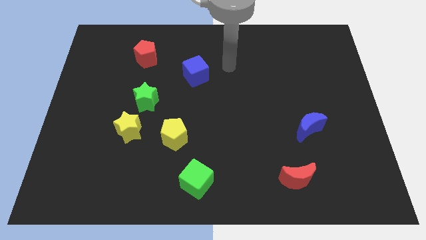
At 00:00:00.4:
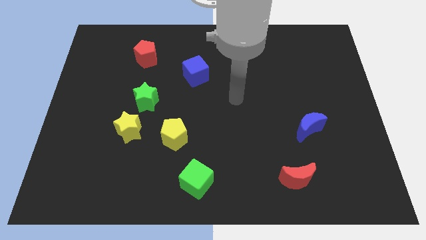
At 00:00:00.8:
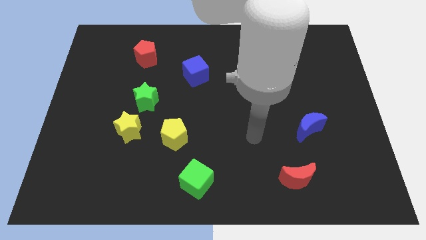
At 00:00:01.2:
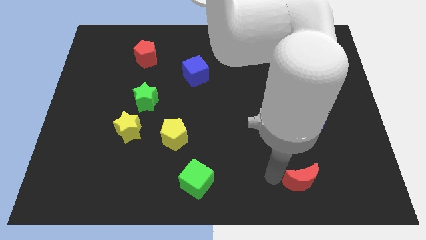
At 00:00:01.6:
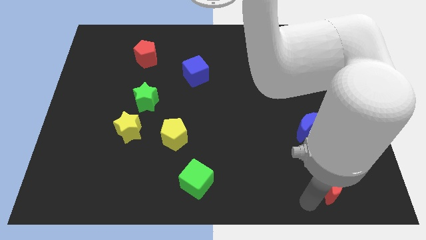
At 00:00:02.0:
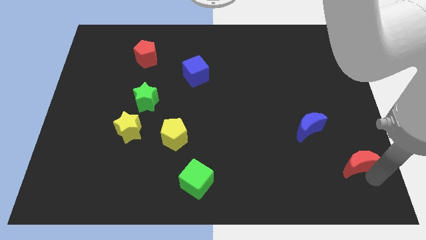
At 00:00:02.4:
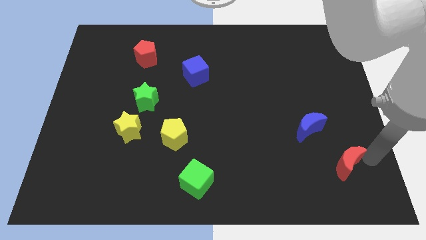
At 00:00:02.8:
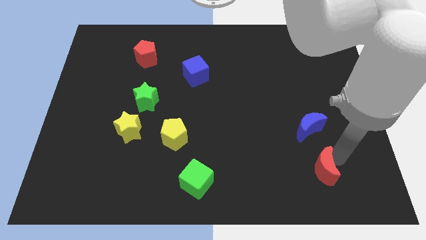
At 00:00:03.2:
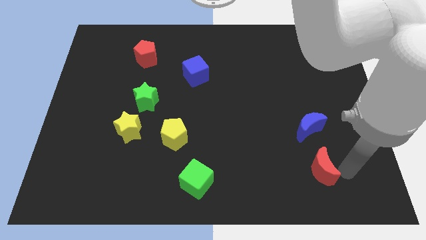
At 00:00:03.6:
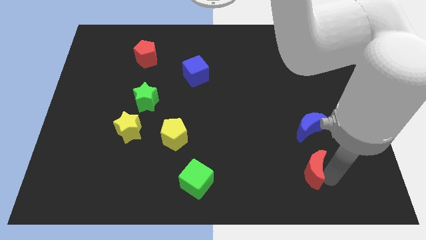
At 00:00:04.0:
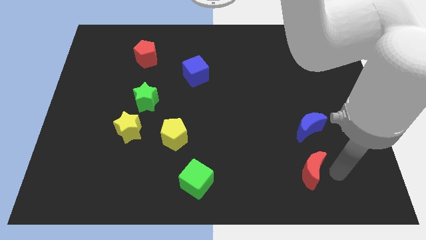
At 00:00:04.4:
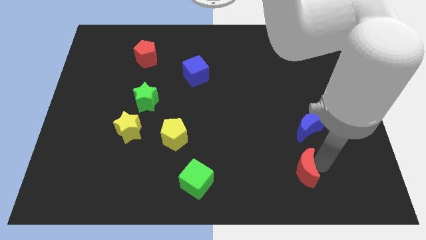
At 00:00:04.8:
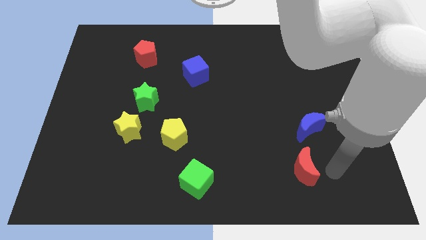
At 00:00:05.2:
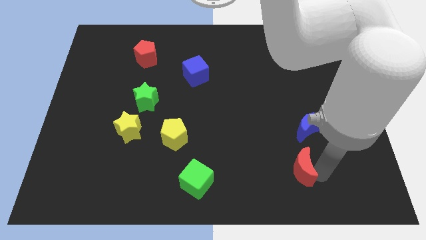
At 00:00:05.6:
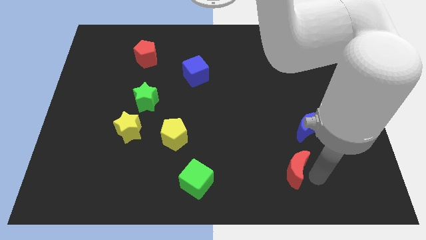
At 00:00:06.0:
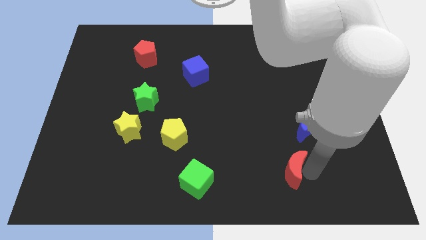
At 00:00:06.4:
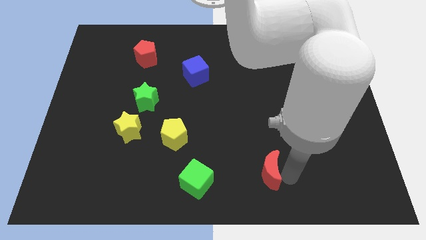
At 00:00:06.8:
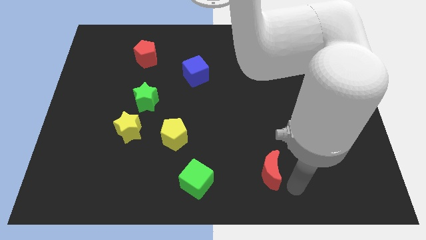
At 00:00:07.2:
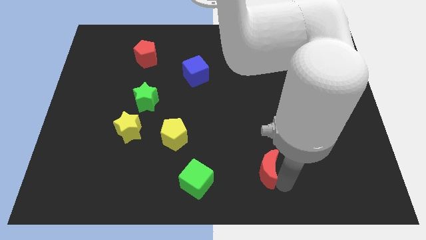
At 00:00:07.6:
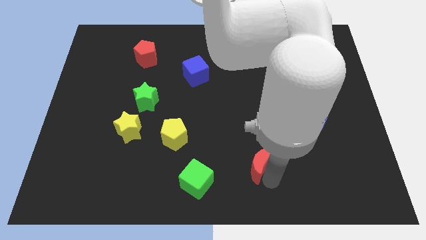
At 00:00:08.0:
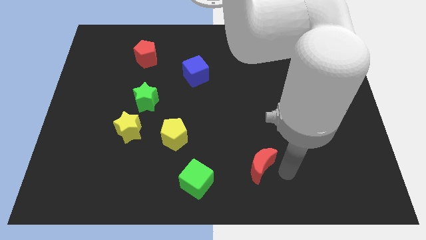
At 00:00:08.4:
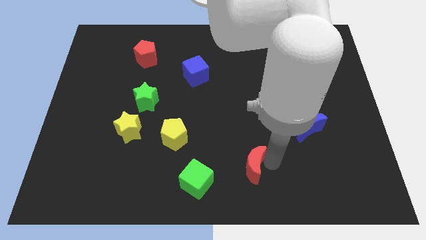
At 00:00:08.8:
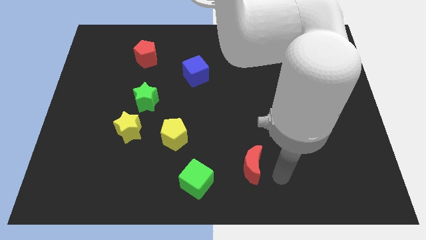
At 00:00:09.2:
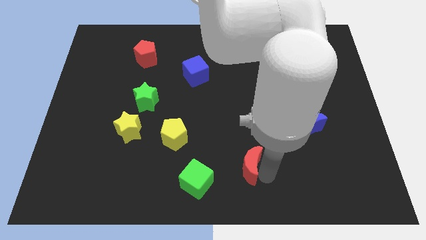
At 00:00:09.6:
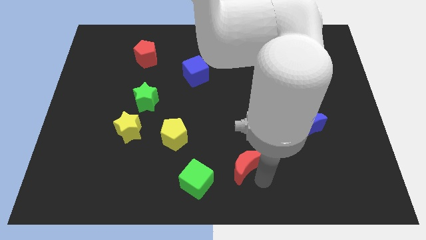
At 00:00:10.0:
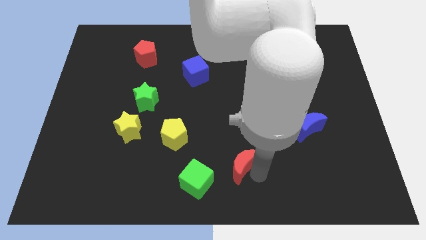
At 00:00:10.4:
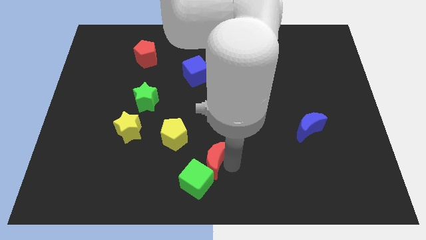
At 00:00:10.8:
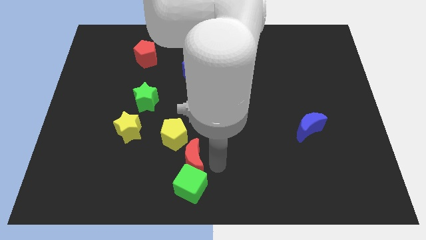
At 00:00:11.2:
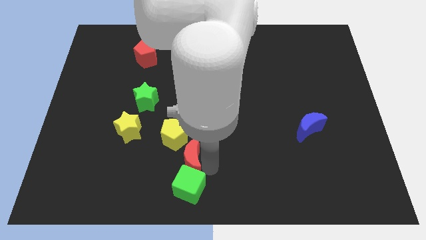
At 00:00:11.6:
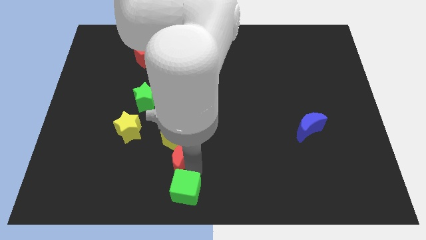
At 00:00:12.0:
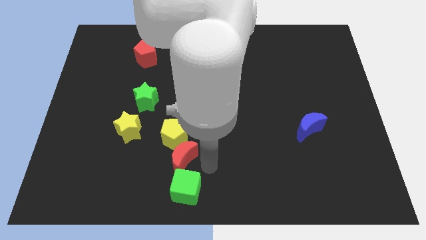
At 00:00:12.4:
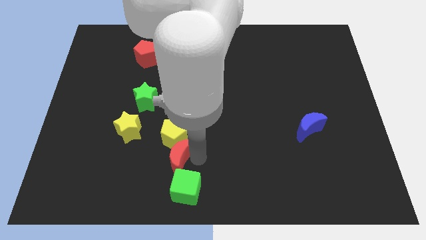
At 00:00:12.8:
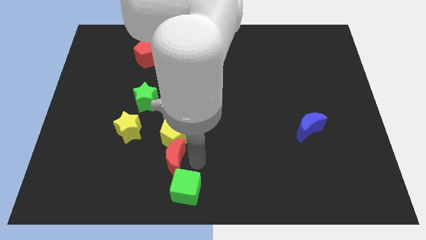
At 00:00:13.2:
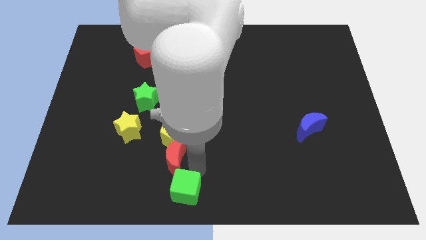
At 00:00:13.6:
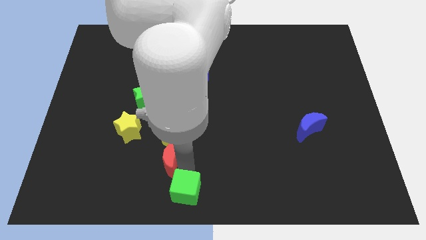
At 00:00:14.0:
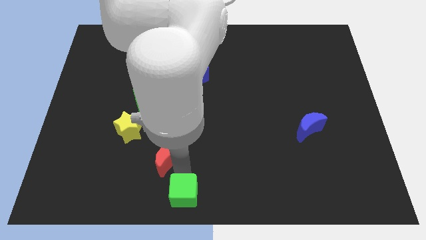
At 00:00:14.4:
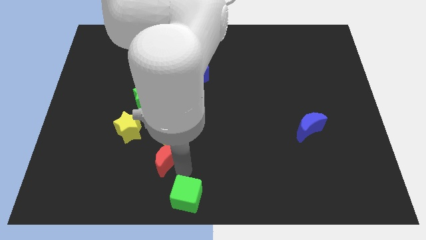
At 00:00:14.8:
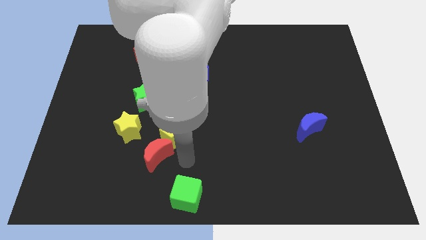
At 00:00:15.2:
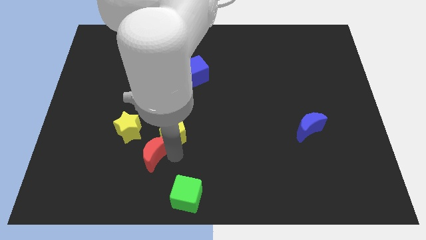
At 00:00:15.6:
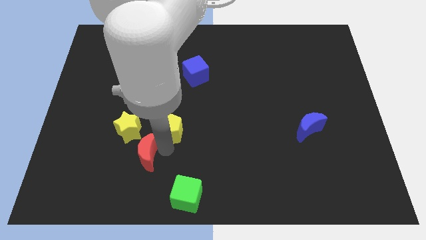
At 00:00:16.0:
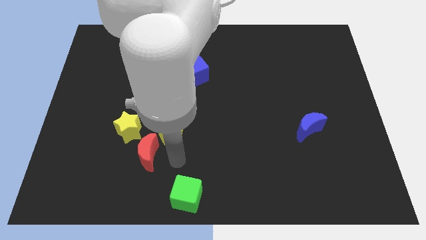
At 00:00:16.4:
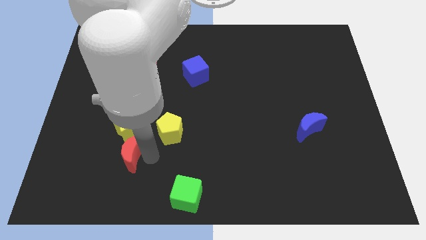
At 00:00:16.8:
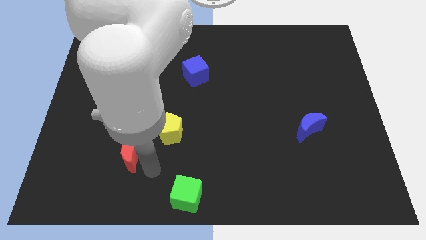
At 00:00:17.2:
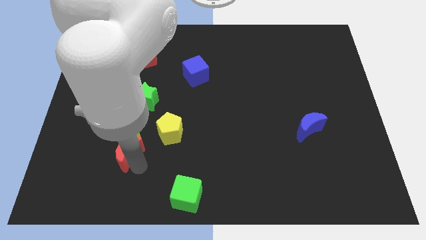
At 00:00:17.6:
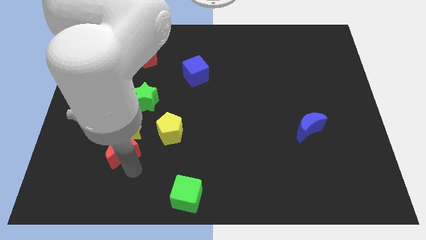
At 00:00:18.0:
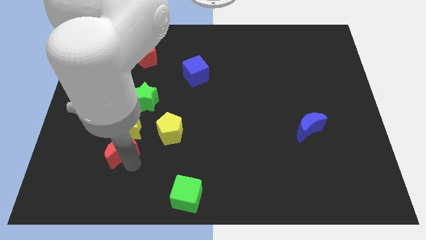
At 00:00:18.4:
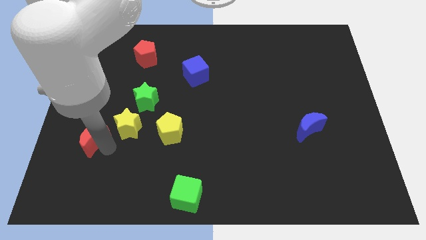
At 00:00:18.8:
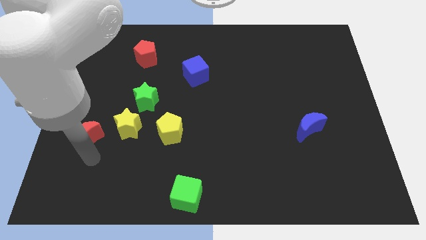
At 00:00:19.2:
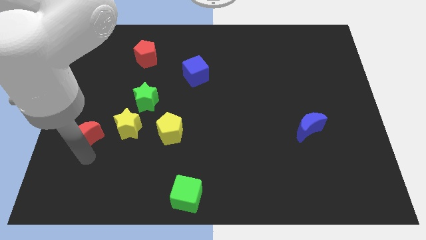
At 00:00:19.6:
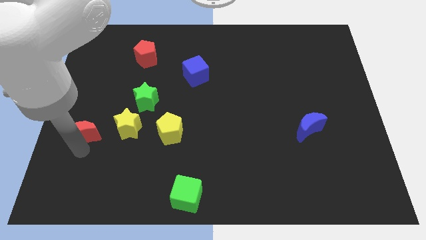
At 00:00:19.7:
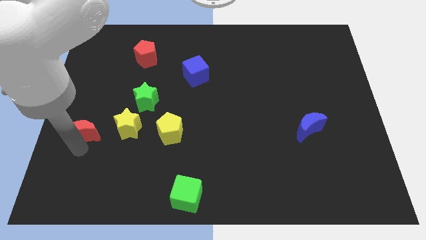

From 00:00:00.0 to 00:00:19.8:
slide the red moon to the left side of the board

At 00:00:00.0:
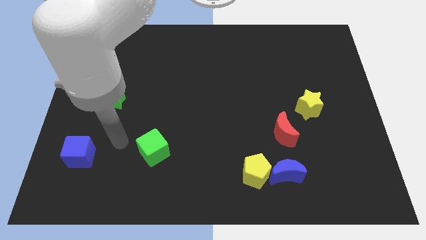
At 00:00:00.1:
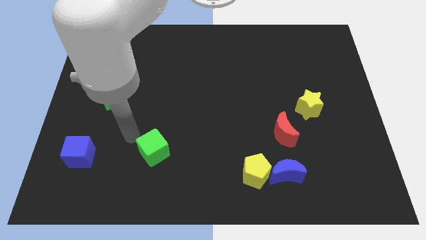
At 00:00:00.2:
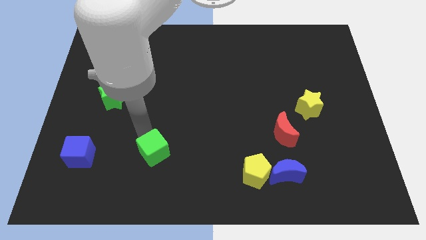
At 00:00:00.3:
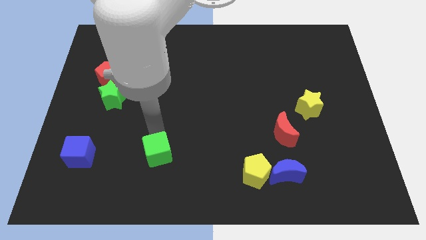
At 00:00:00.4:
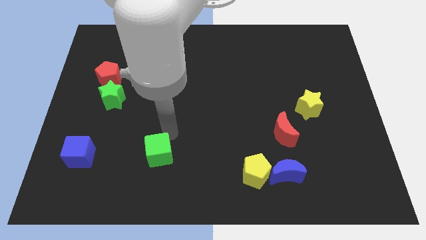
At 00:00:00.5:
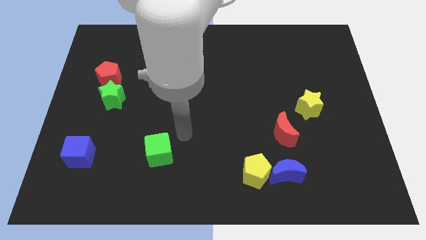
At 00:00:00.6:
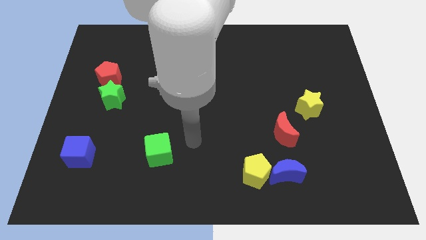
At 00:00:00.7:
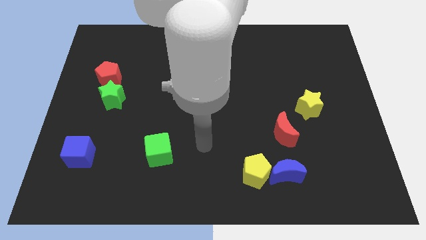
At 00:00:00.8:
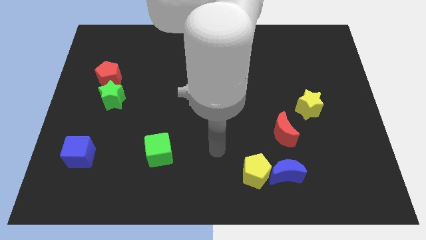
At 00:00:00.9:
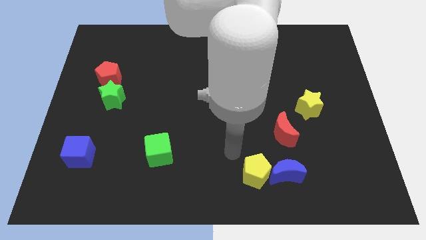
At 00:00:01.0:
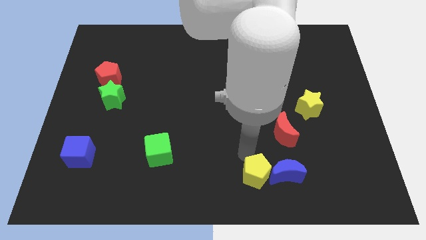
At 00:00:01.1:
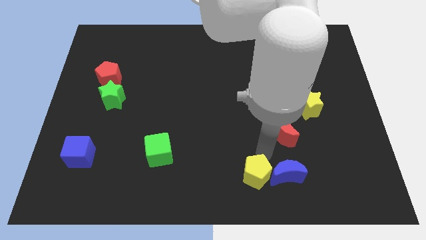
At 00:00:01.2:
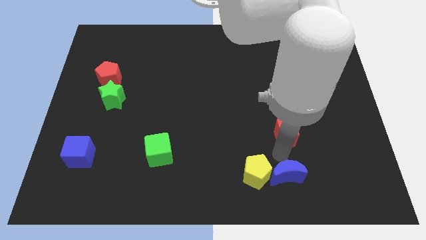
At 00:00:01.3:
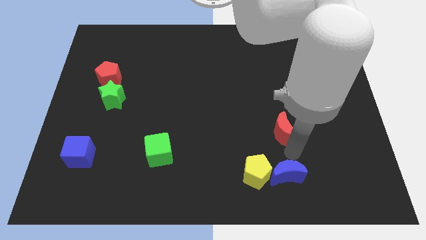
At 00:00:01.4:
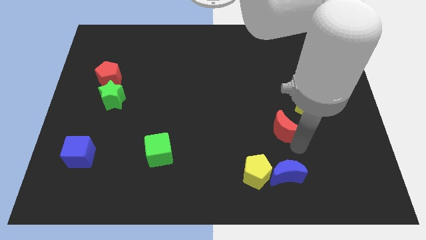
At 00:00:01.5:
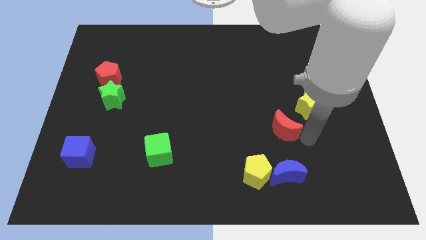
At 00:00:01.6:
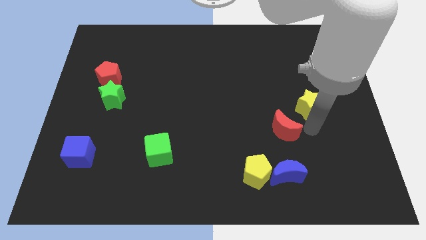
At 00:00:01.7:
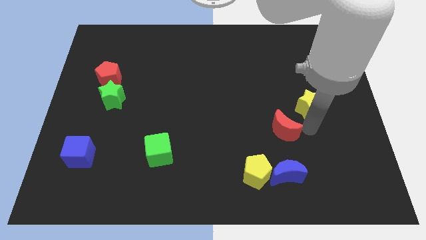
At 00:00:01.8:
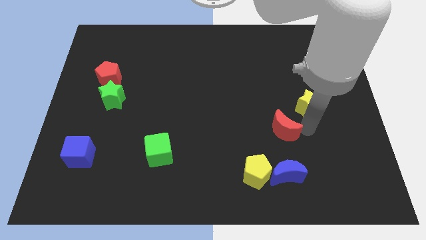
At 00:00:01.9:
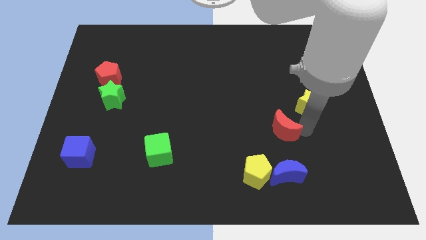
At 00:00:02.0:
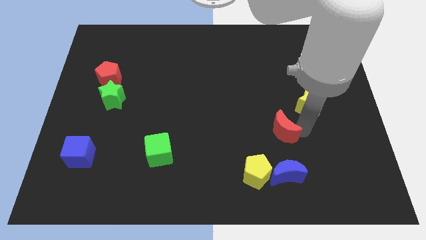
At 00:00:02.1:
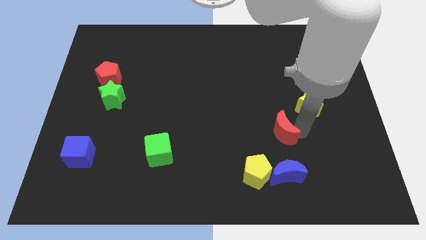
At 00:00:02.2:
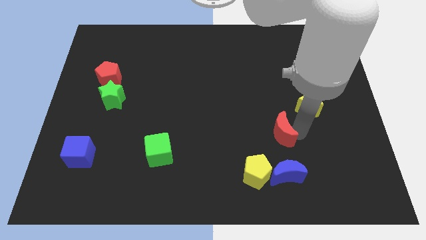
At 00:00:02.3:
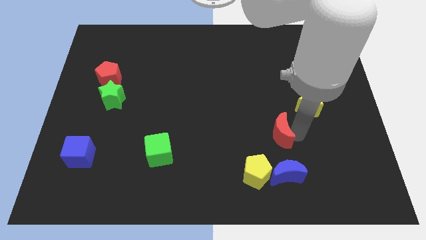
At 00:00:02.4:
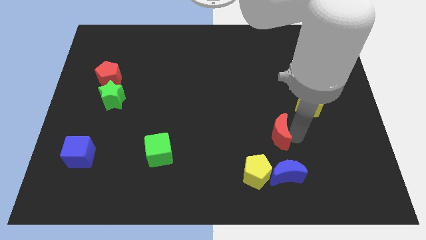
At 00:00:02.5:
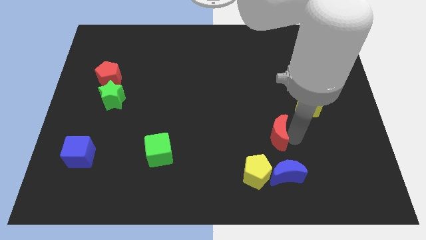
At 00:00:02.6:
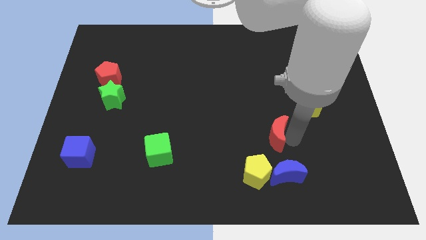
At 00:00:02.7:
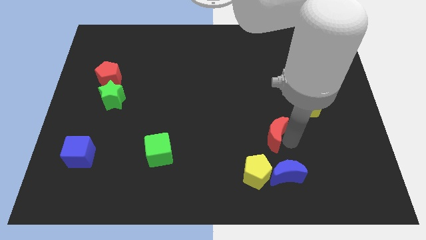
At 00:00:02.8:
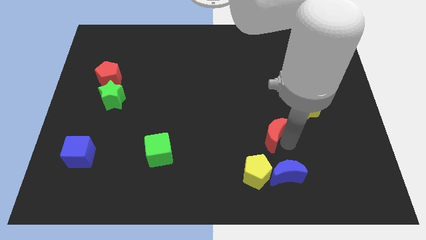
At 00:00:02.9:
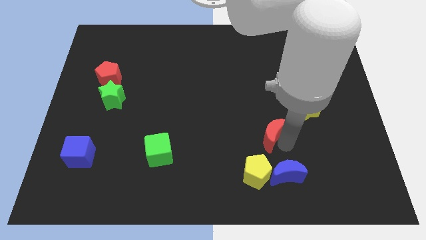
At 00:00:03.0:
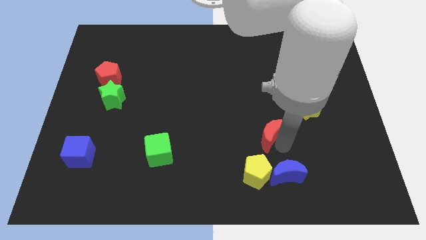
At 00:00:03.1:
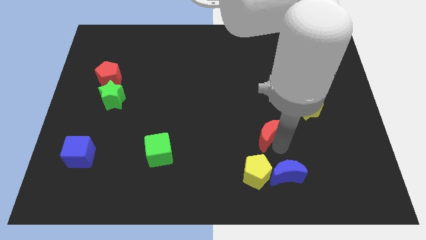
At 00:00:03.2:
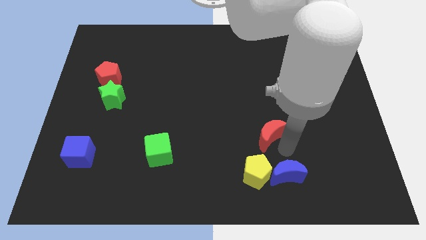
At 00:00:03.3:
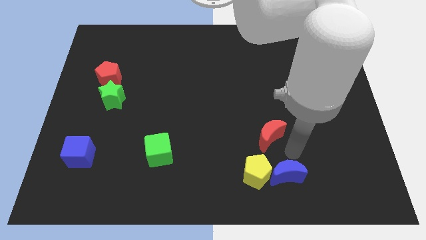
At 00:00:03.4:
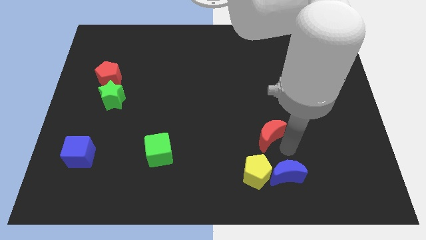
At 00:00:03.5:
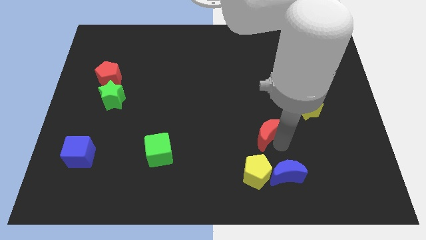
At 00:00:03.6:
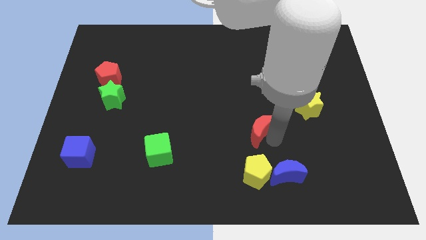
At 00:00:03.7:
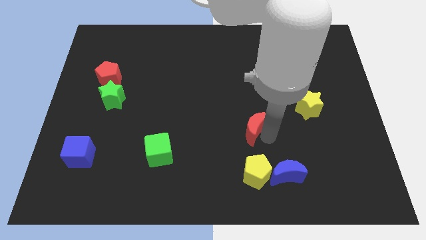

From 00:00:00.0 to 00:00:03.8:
put the red moon to the middle
